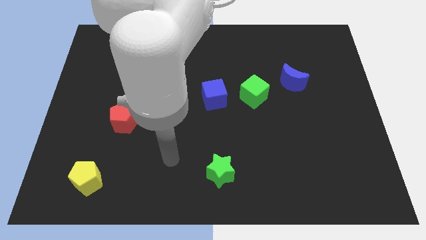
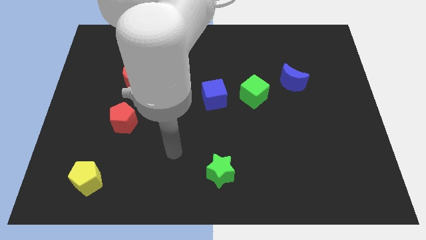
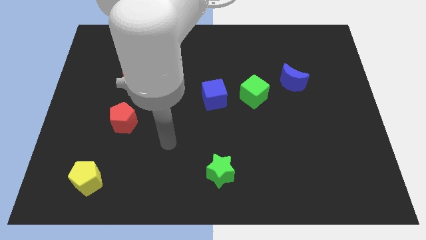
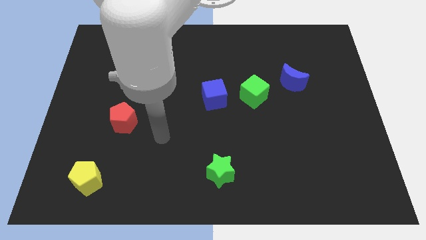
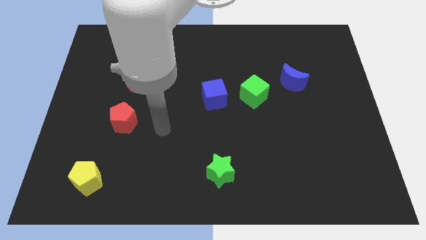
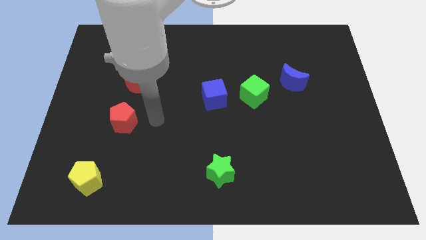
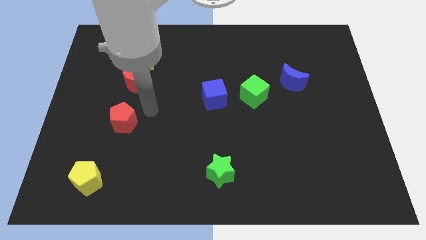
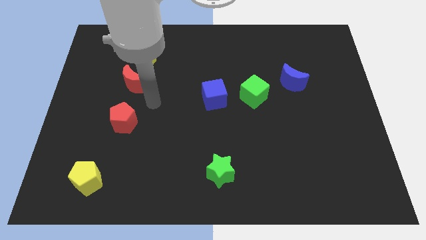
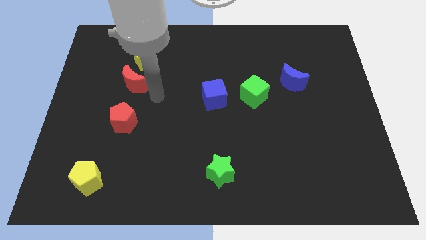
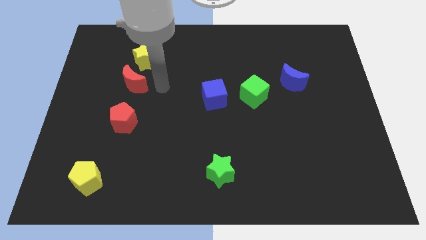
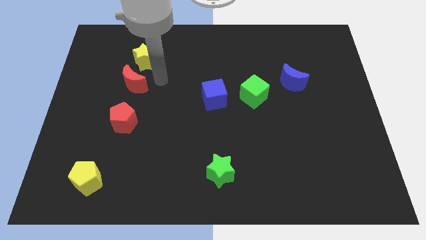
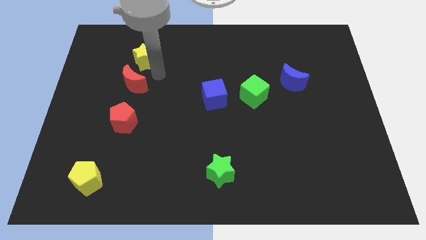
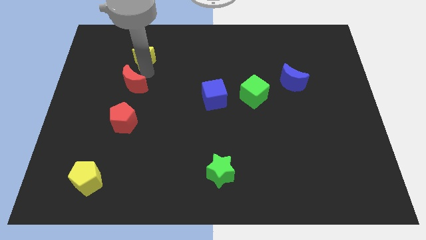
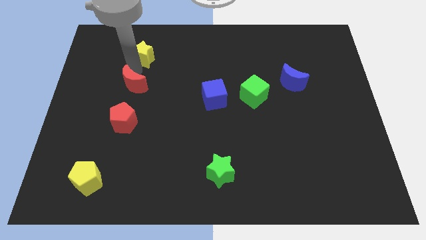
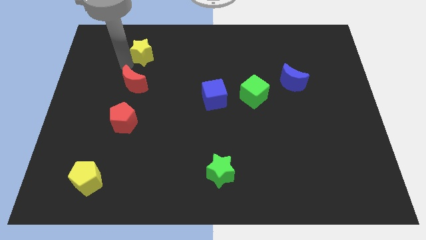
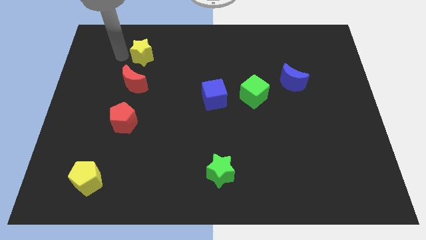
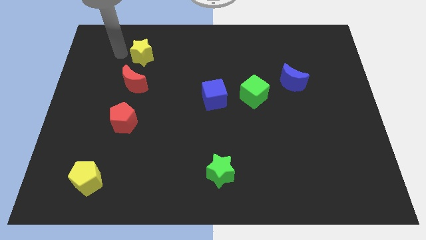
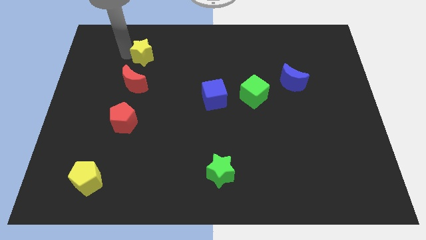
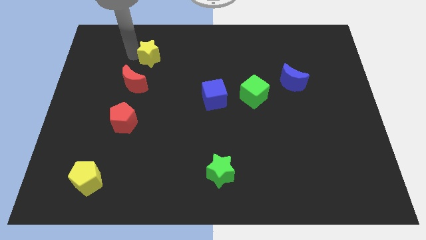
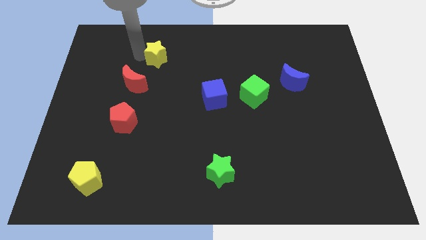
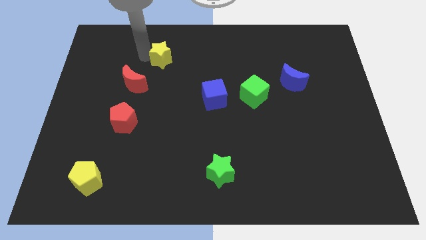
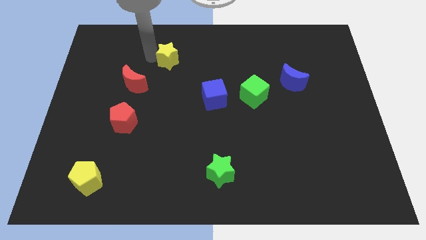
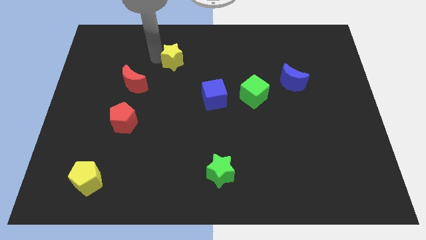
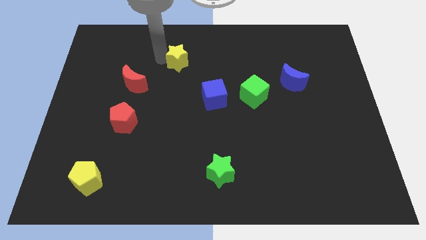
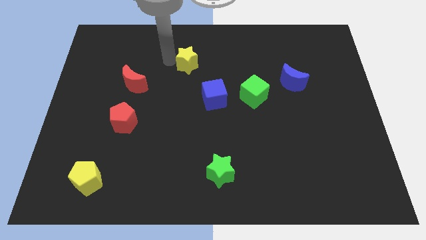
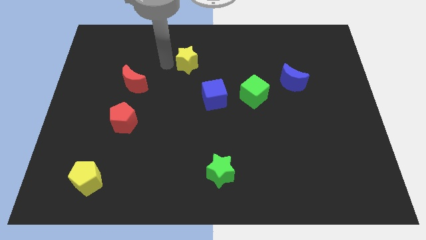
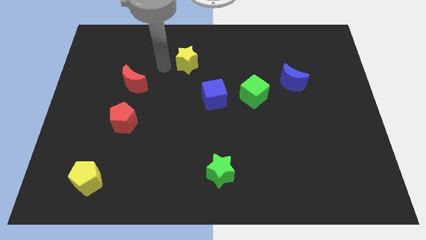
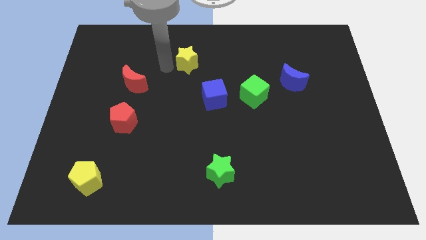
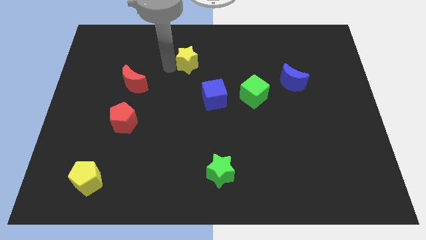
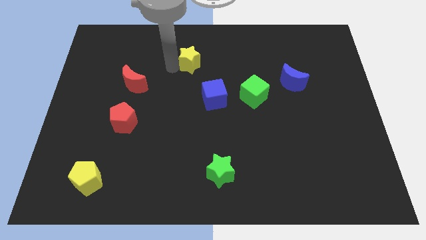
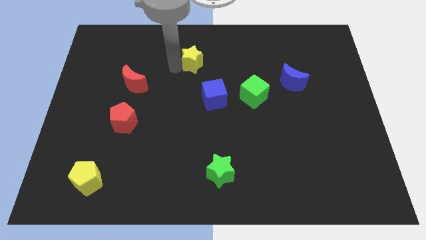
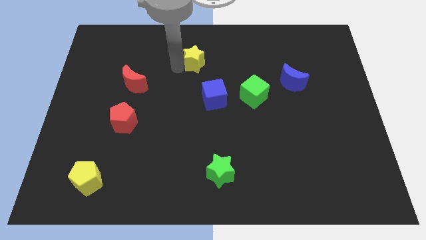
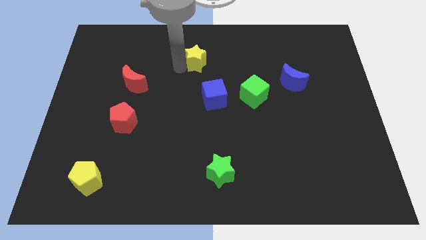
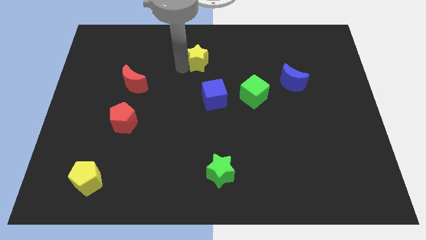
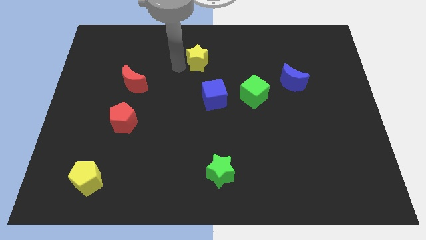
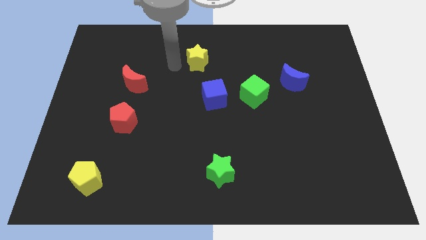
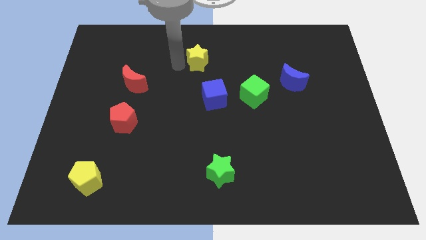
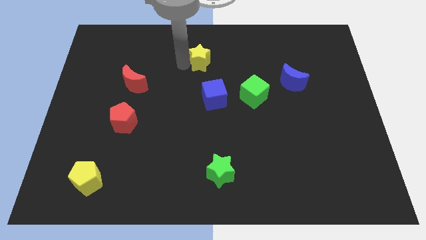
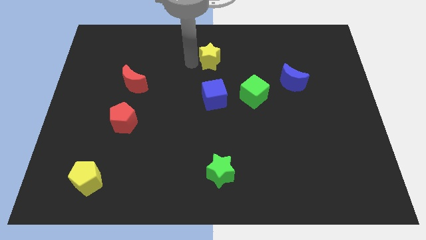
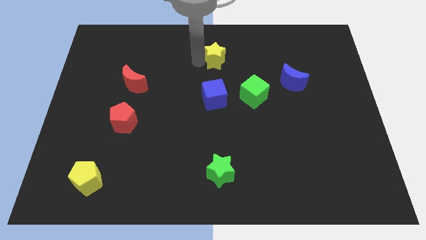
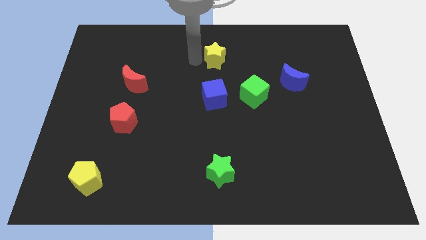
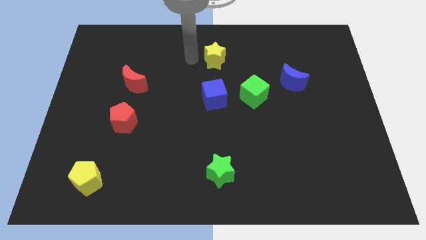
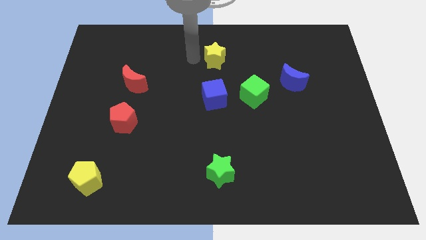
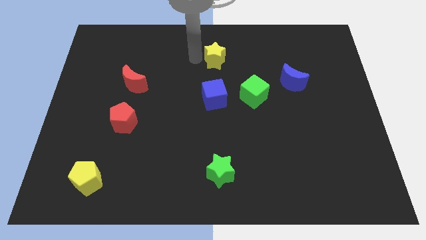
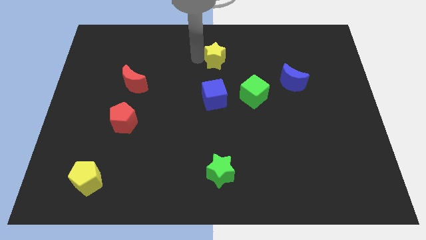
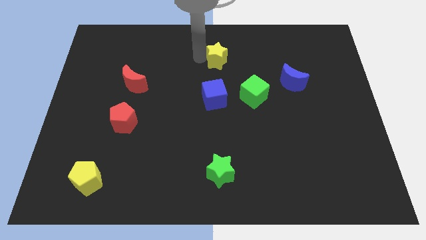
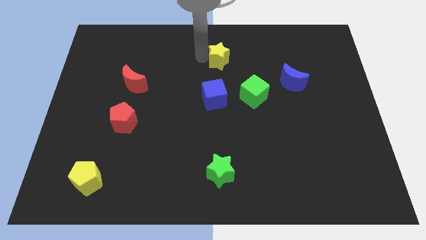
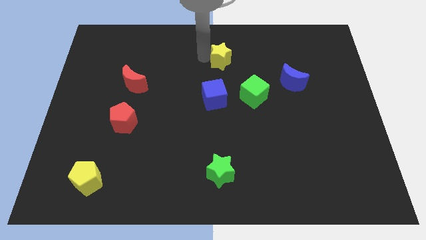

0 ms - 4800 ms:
push the yellow star to the right

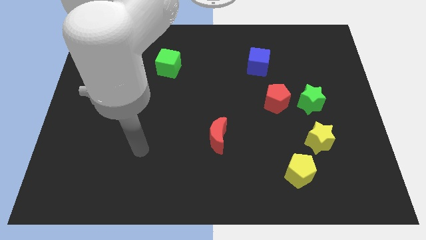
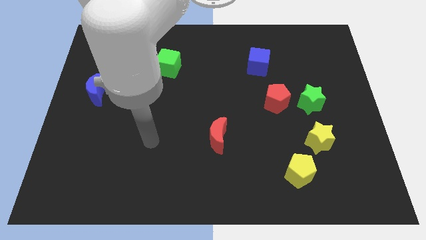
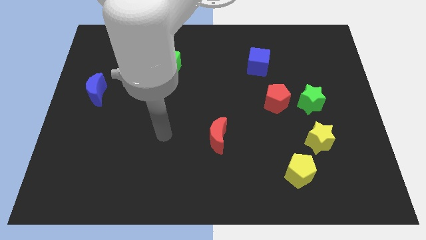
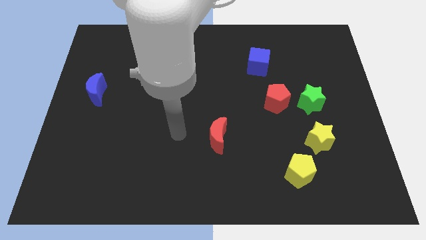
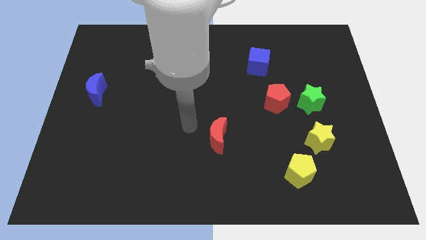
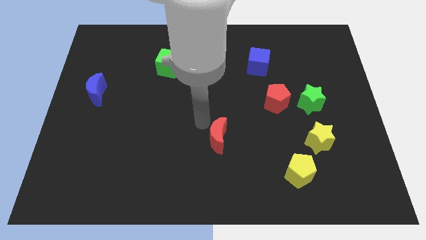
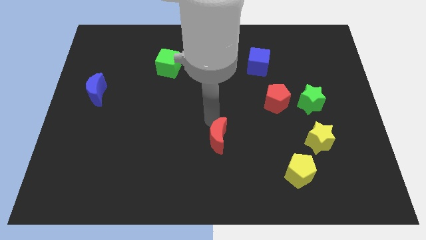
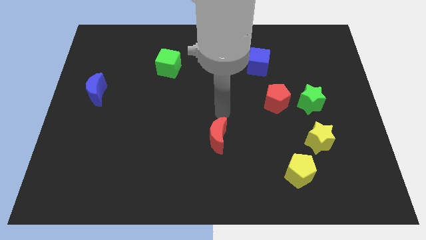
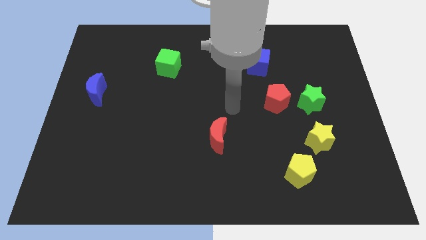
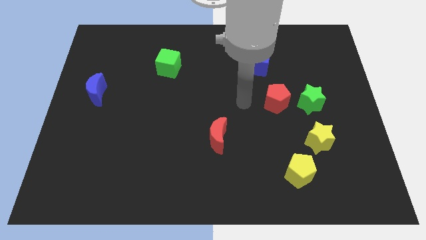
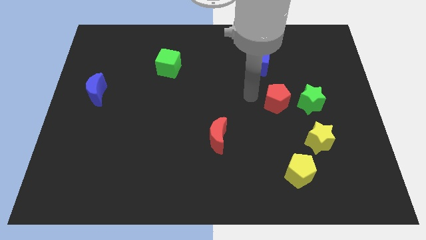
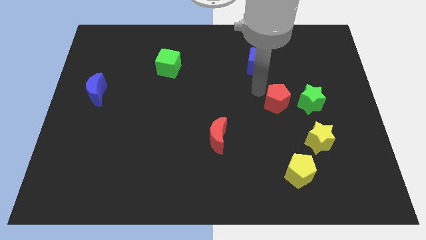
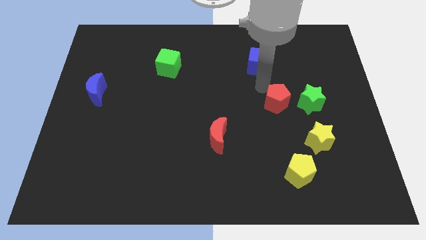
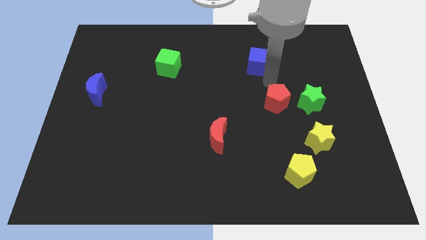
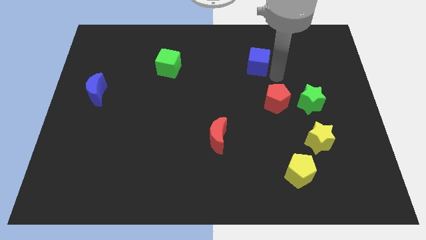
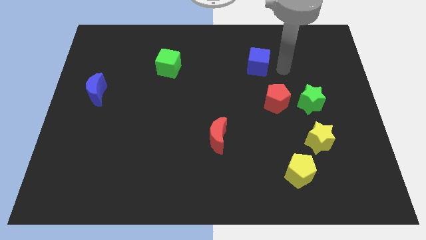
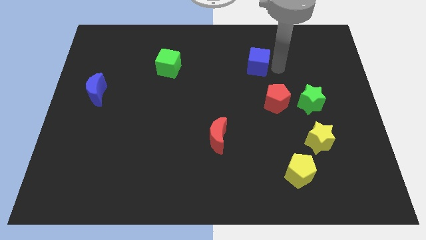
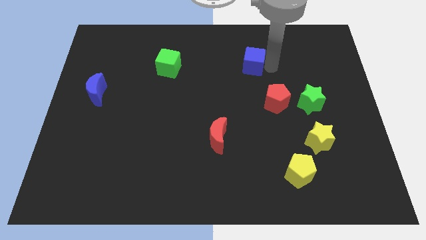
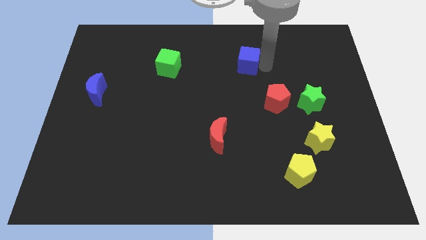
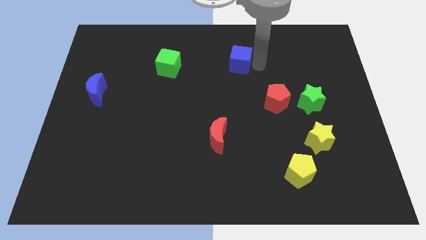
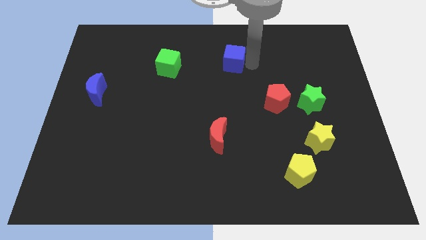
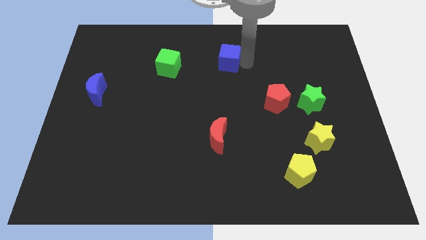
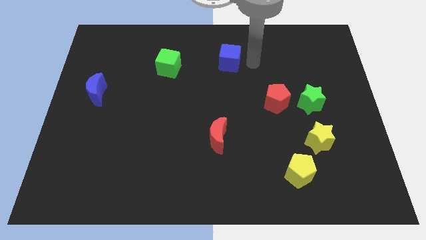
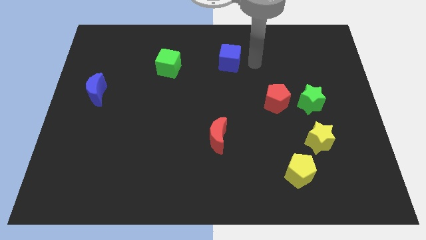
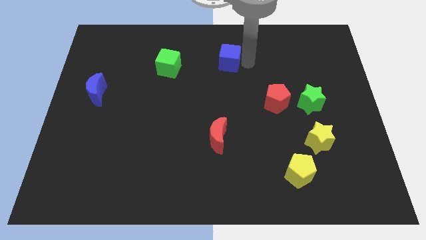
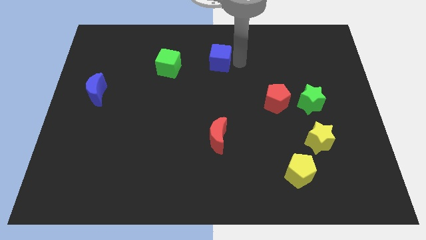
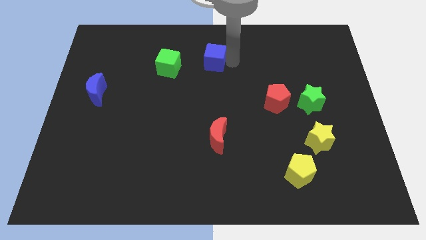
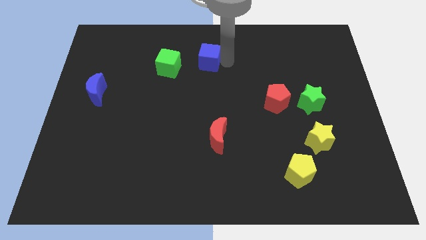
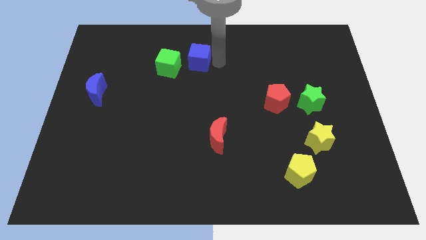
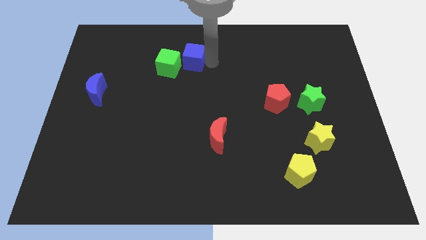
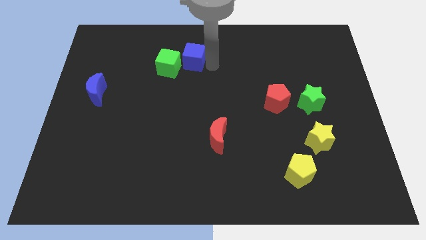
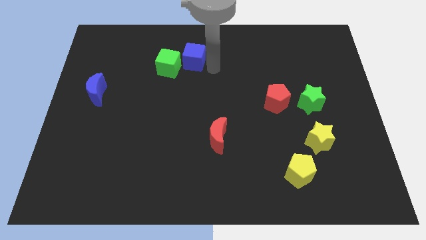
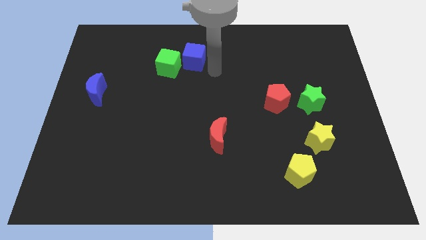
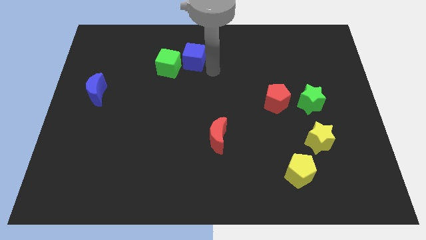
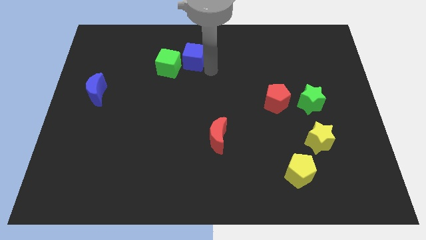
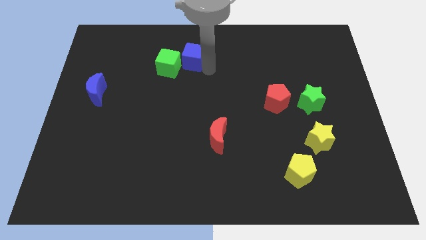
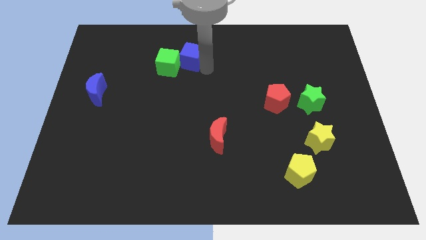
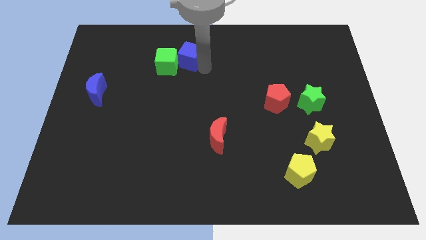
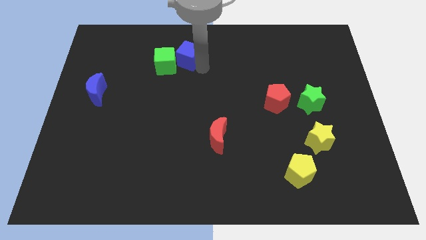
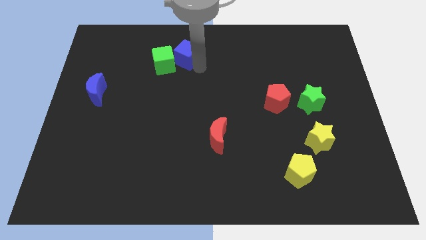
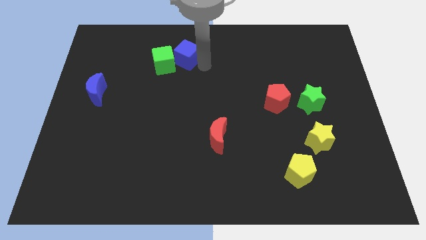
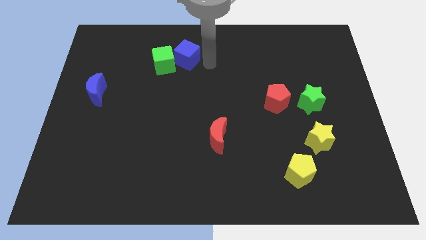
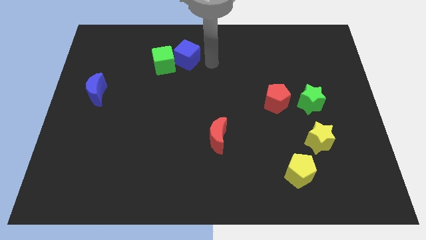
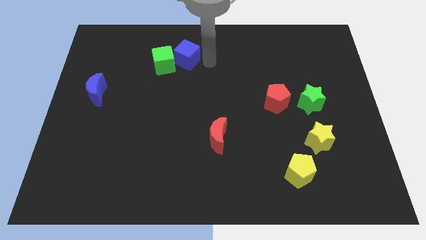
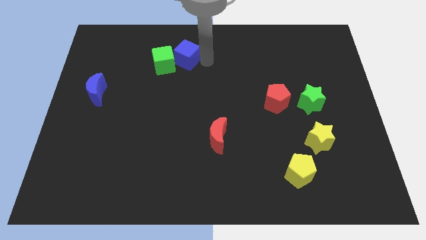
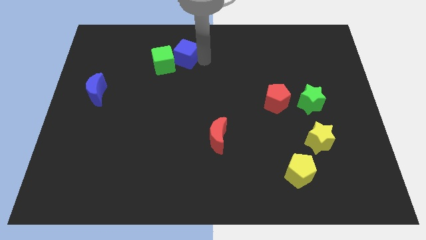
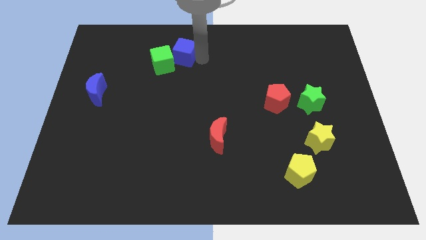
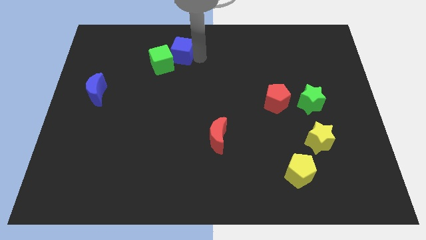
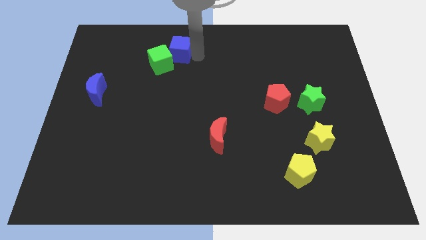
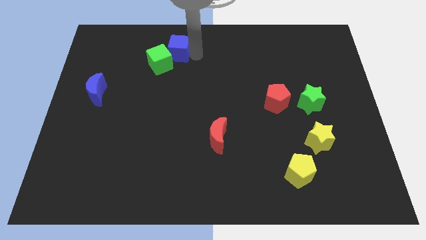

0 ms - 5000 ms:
push the blue cube left
